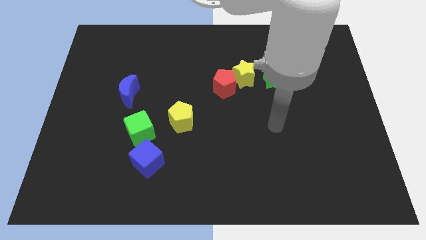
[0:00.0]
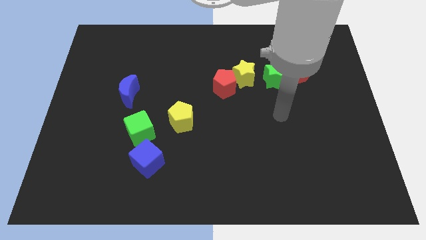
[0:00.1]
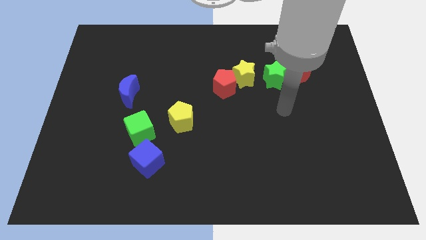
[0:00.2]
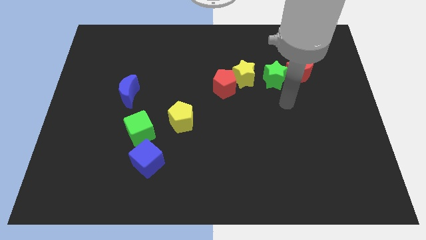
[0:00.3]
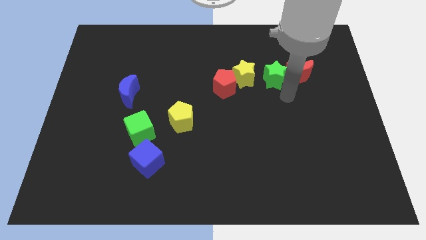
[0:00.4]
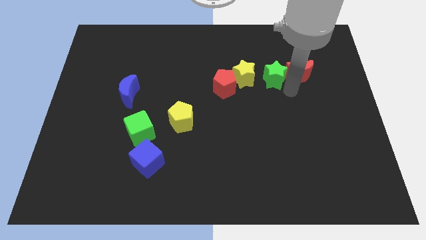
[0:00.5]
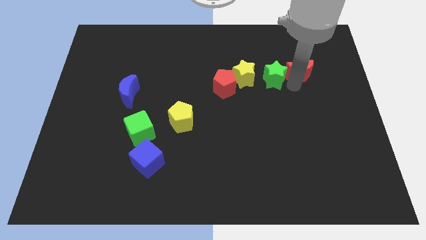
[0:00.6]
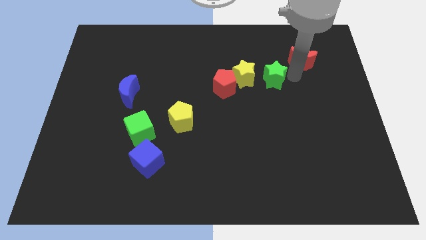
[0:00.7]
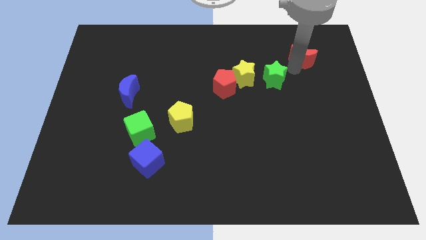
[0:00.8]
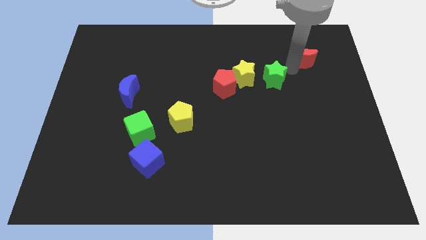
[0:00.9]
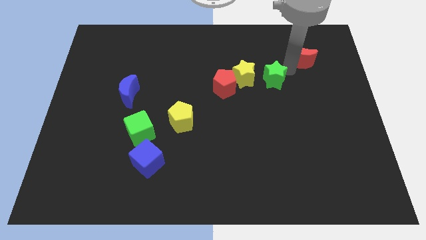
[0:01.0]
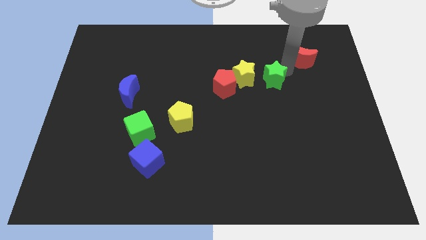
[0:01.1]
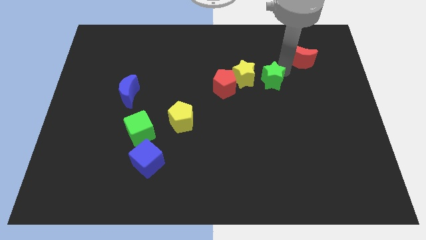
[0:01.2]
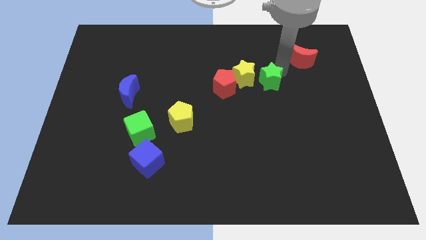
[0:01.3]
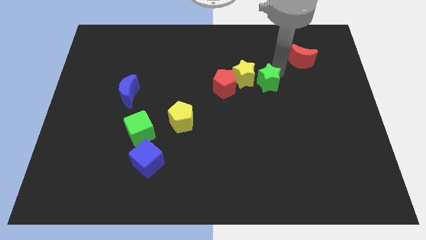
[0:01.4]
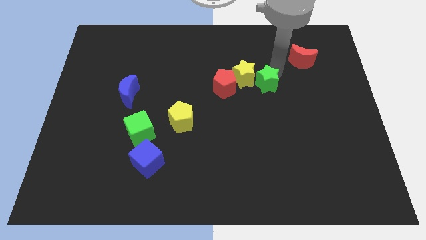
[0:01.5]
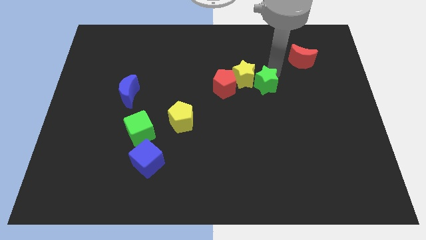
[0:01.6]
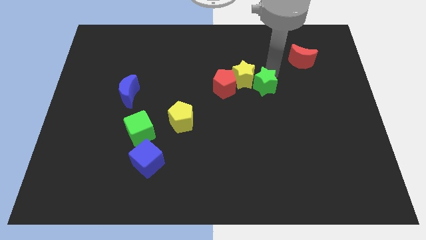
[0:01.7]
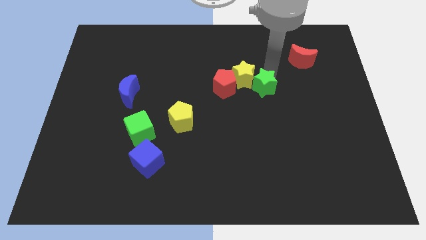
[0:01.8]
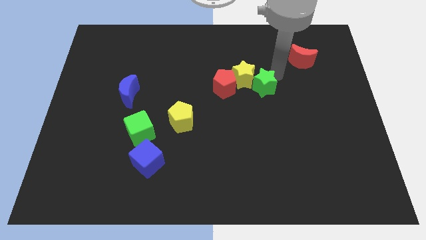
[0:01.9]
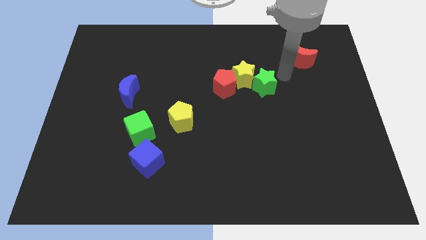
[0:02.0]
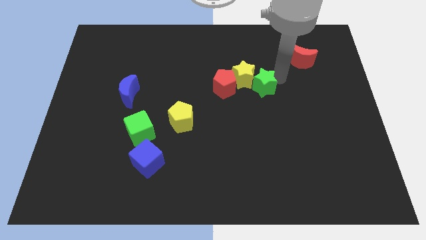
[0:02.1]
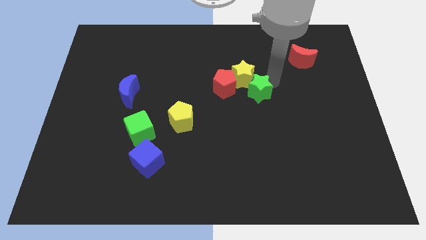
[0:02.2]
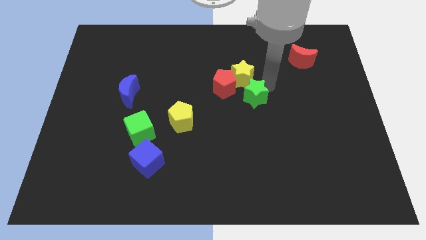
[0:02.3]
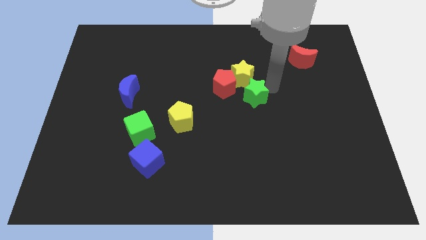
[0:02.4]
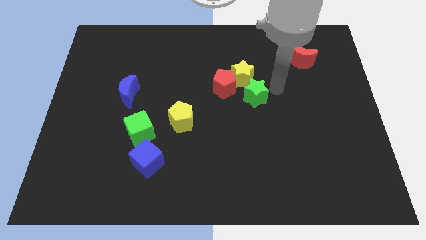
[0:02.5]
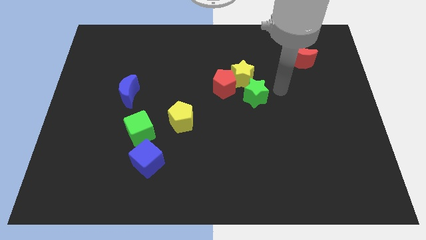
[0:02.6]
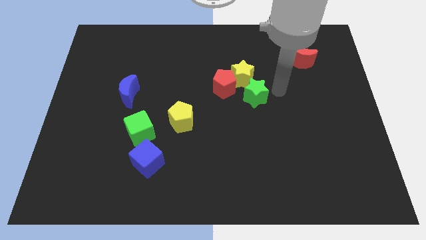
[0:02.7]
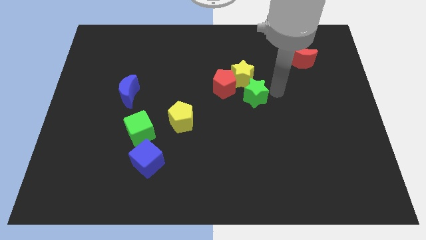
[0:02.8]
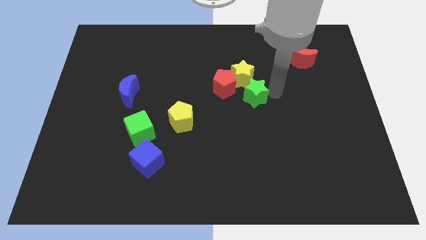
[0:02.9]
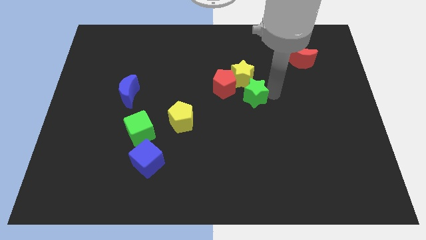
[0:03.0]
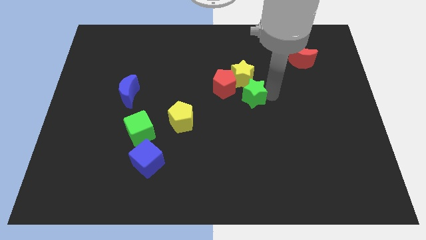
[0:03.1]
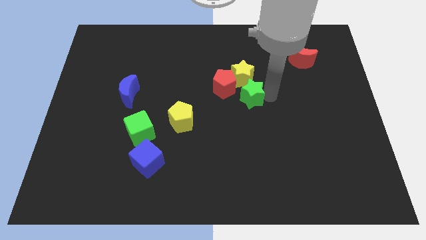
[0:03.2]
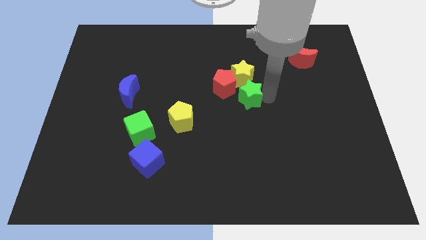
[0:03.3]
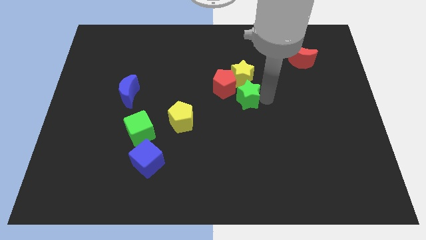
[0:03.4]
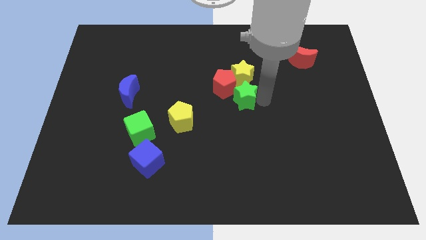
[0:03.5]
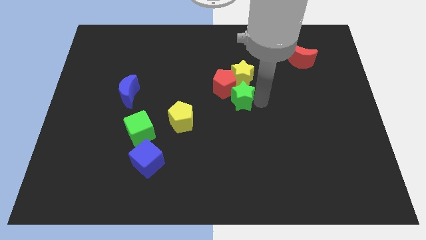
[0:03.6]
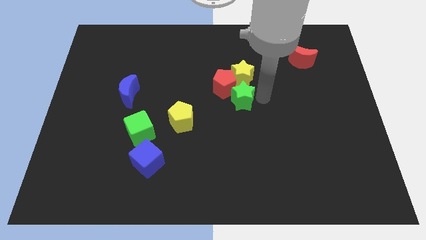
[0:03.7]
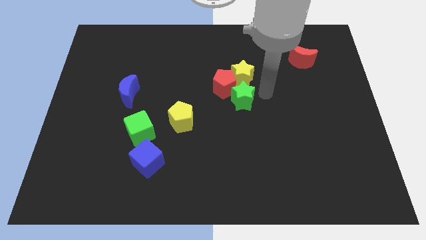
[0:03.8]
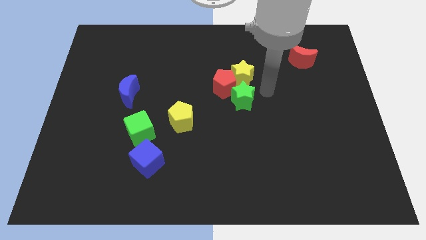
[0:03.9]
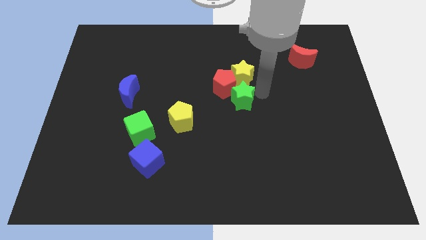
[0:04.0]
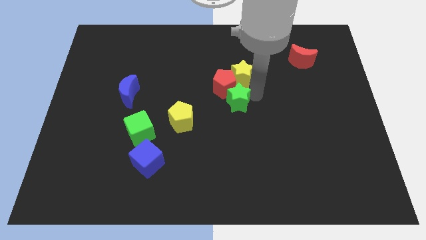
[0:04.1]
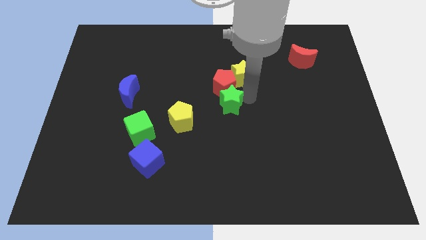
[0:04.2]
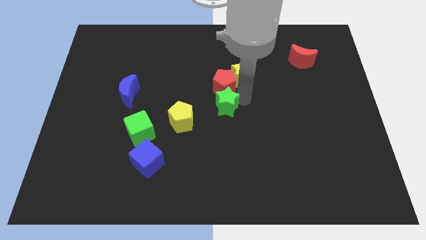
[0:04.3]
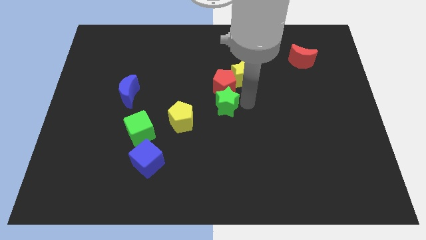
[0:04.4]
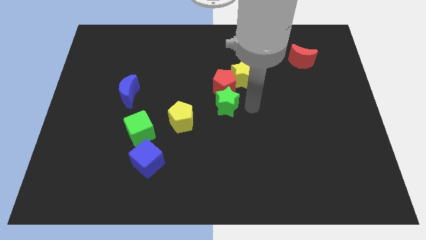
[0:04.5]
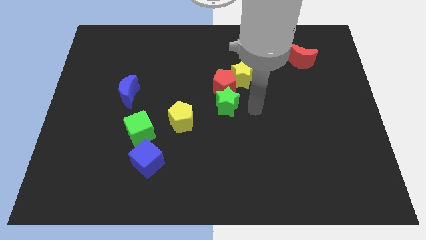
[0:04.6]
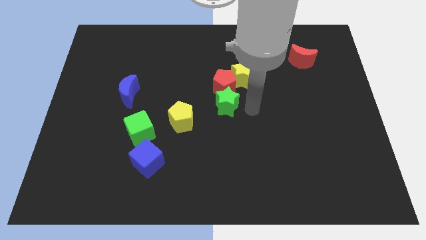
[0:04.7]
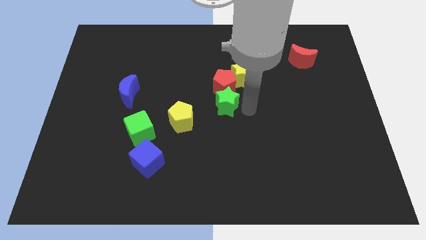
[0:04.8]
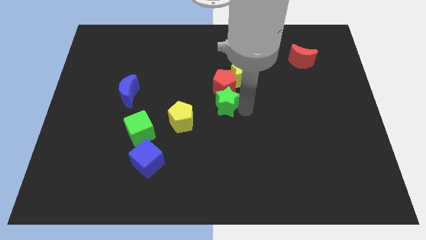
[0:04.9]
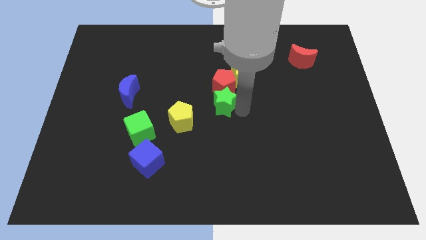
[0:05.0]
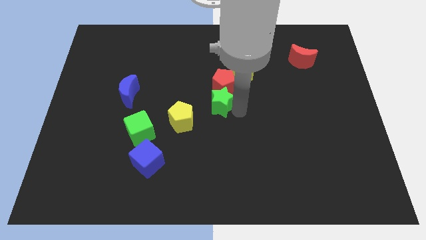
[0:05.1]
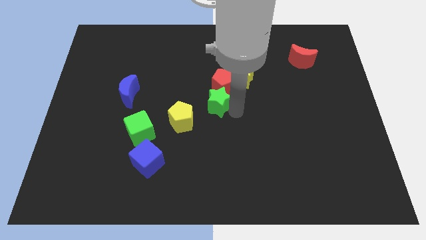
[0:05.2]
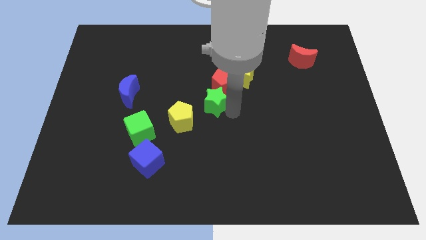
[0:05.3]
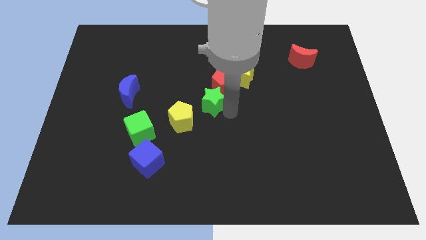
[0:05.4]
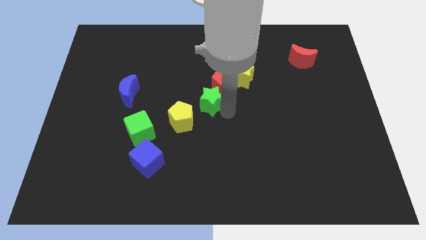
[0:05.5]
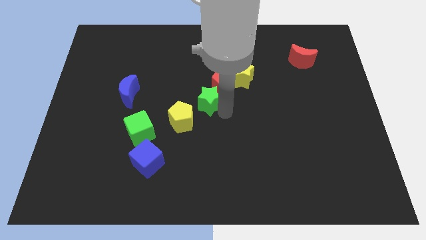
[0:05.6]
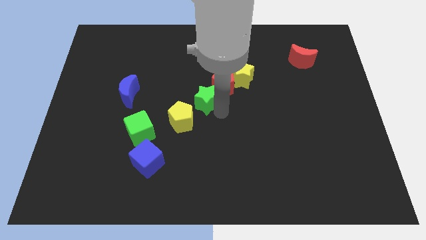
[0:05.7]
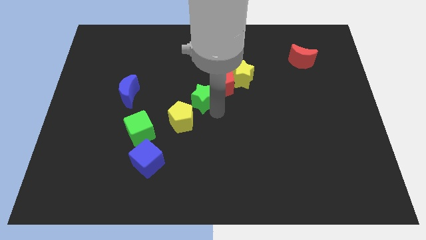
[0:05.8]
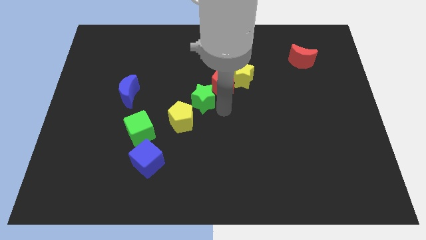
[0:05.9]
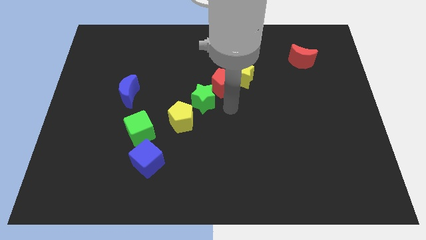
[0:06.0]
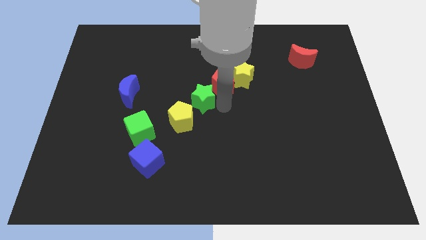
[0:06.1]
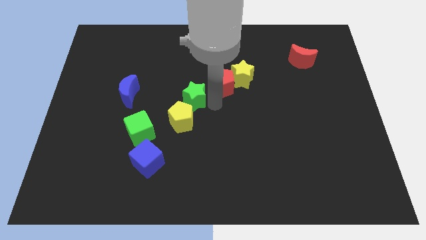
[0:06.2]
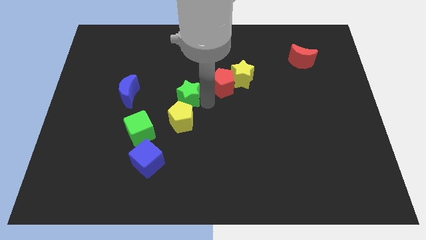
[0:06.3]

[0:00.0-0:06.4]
put the green star just right of the blue moon

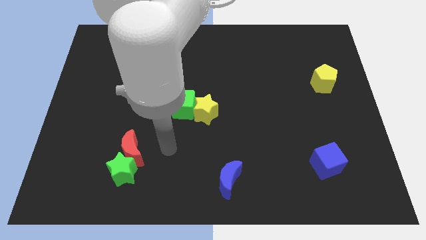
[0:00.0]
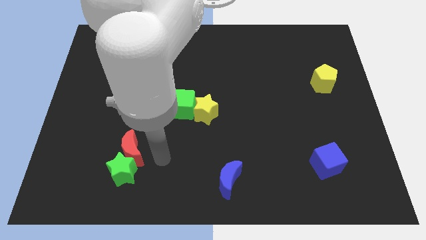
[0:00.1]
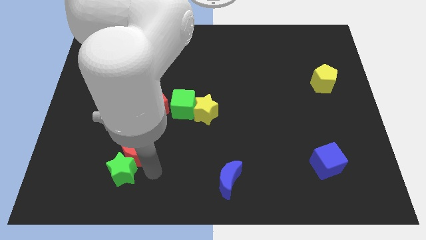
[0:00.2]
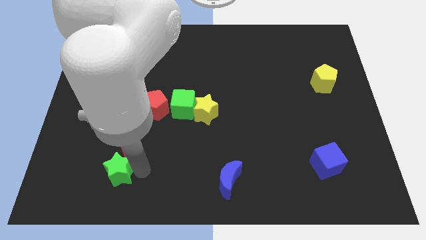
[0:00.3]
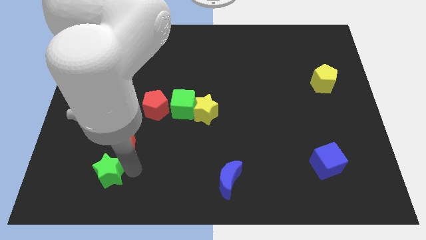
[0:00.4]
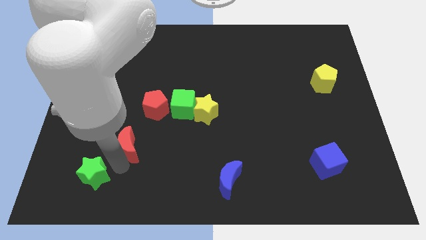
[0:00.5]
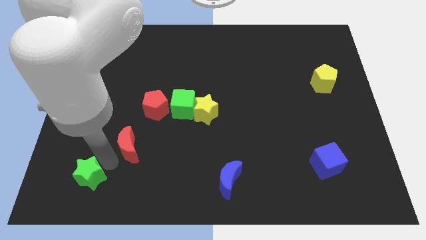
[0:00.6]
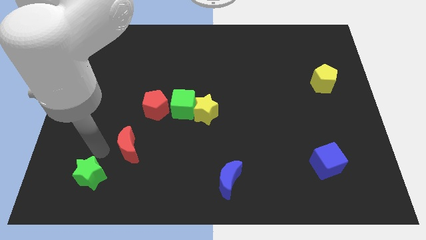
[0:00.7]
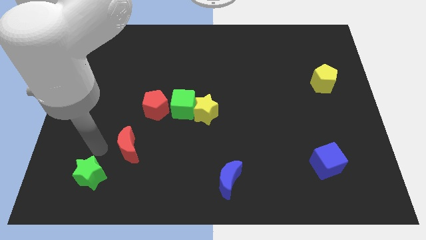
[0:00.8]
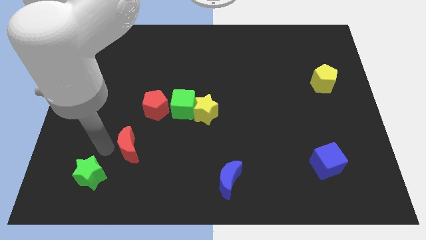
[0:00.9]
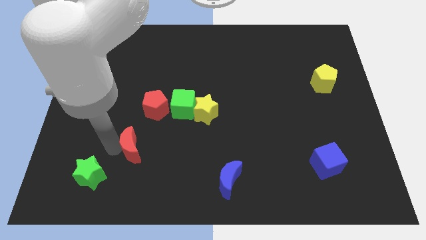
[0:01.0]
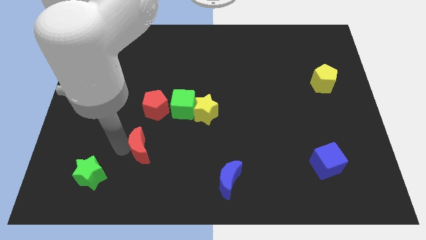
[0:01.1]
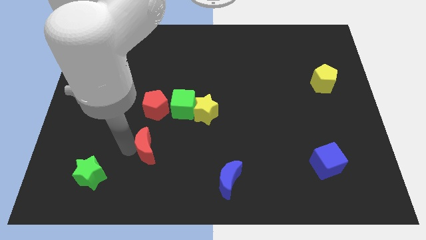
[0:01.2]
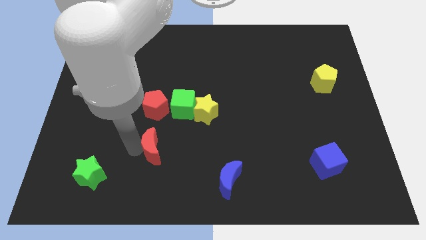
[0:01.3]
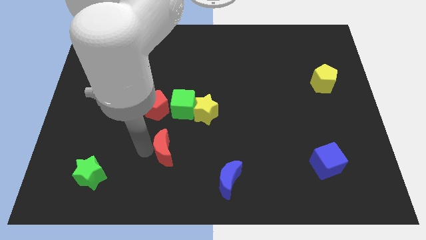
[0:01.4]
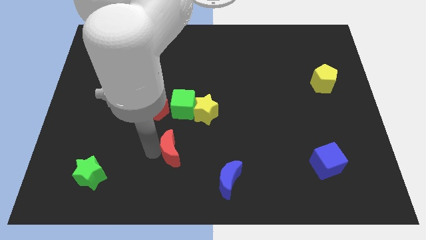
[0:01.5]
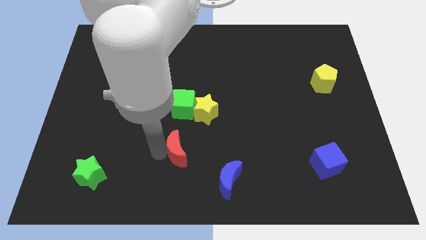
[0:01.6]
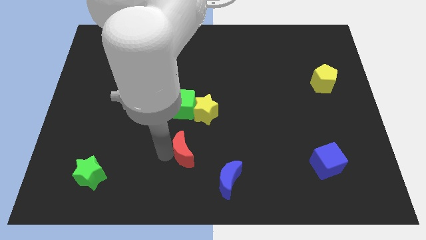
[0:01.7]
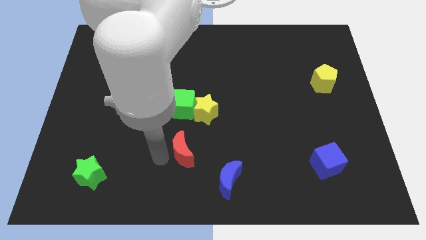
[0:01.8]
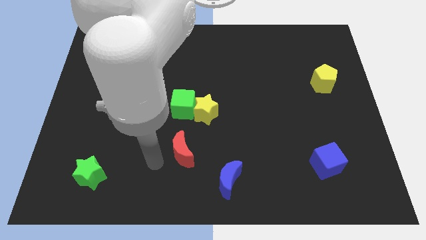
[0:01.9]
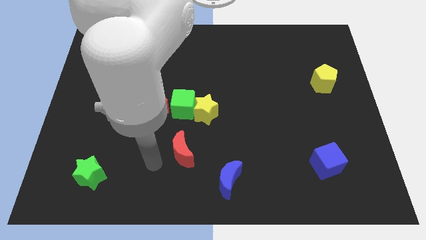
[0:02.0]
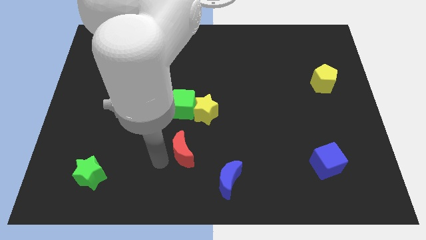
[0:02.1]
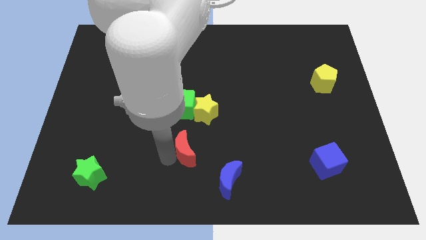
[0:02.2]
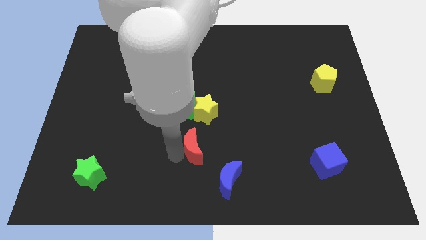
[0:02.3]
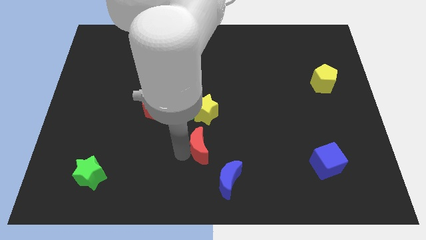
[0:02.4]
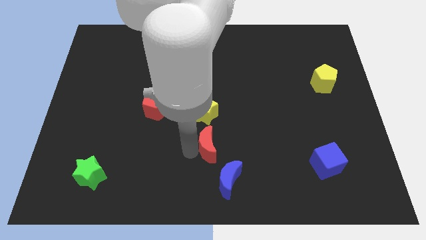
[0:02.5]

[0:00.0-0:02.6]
put the red moon above the blue moon
